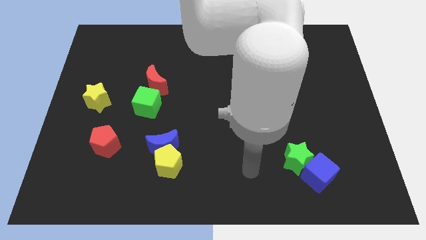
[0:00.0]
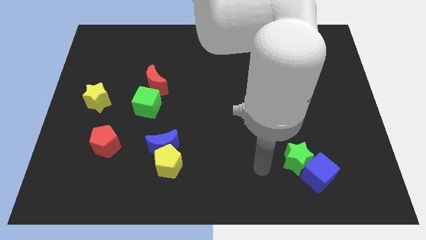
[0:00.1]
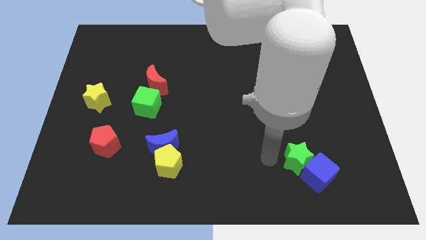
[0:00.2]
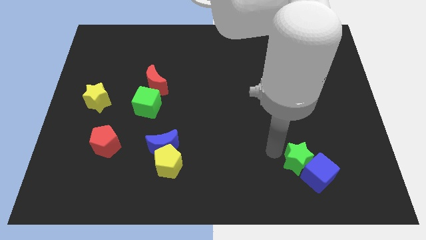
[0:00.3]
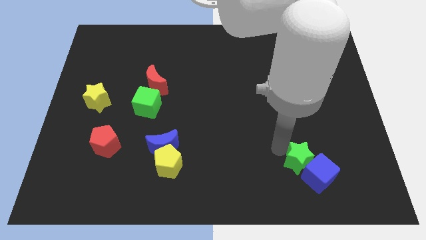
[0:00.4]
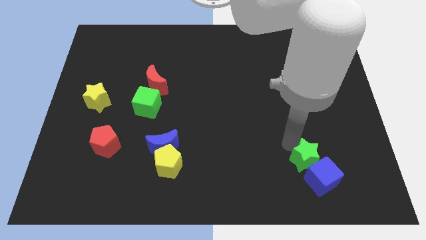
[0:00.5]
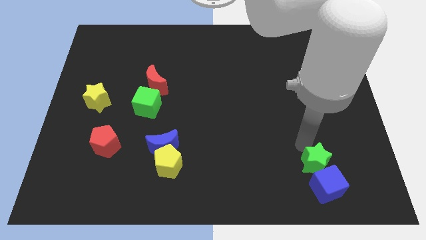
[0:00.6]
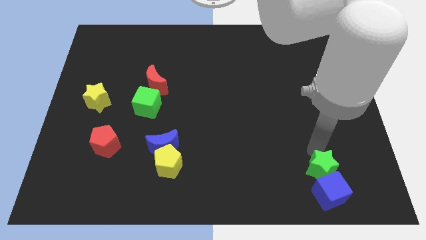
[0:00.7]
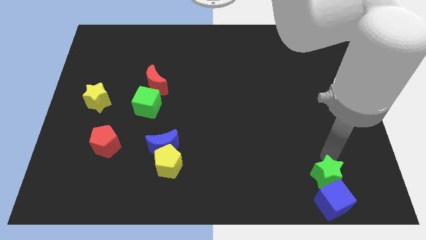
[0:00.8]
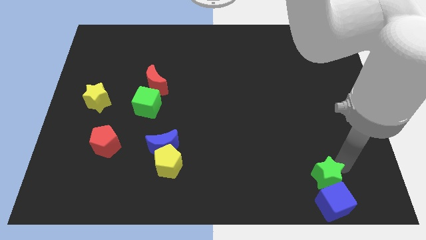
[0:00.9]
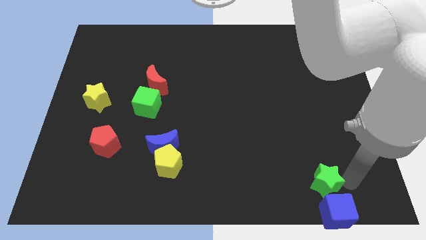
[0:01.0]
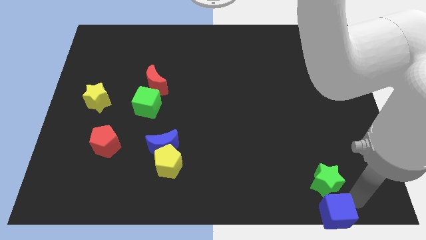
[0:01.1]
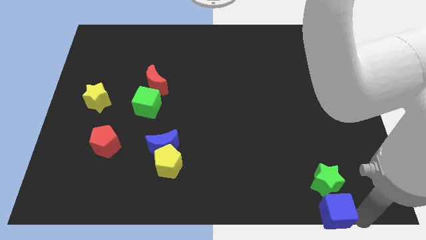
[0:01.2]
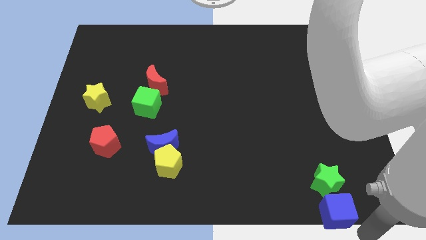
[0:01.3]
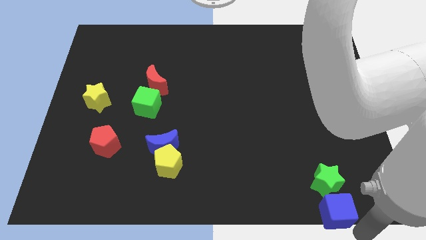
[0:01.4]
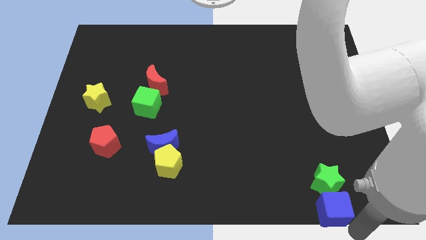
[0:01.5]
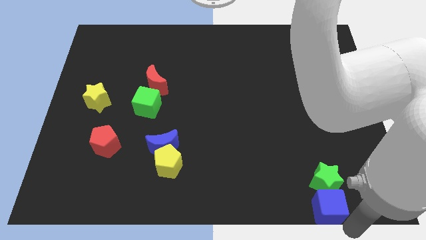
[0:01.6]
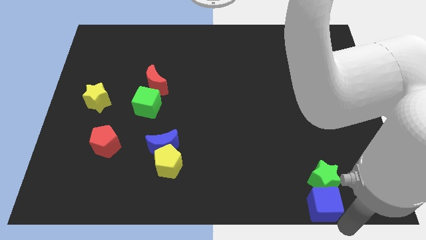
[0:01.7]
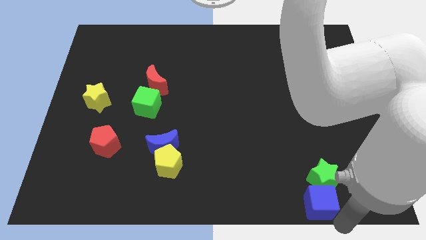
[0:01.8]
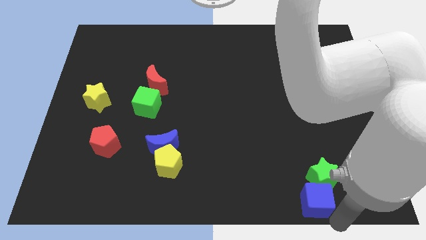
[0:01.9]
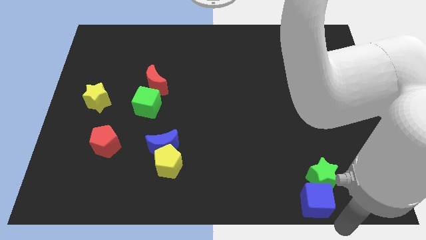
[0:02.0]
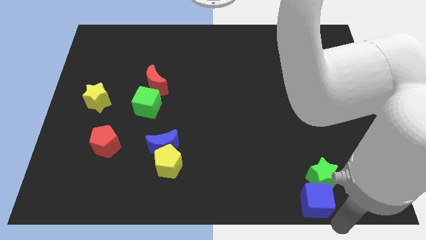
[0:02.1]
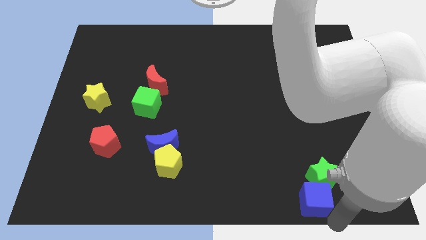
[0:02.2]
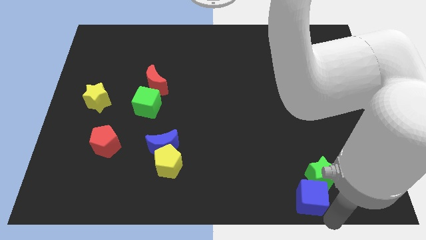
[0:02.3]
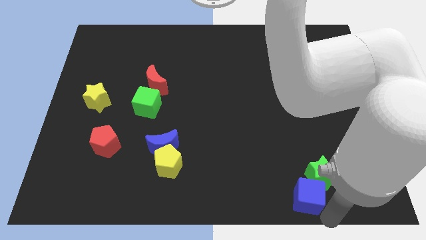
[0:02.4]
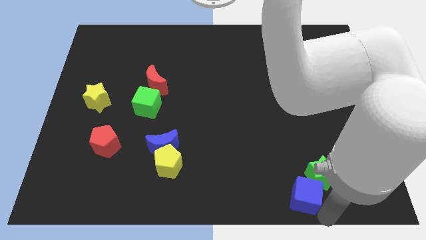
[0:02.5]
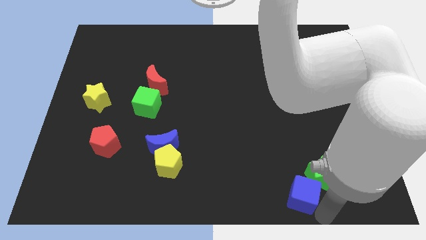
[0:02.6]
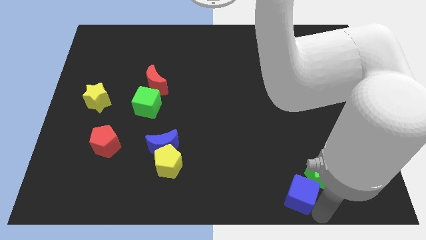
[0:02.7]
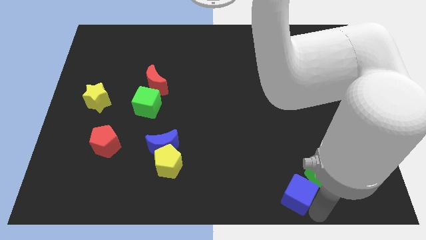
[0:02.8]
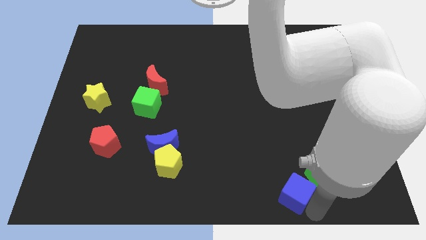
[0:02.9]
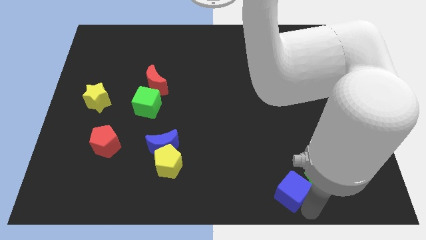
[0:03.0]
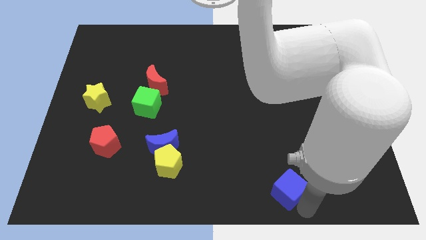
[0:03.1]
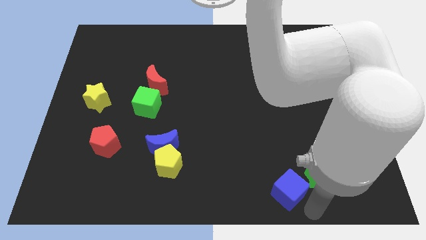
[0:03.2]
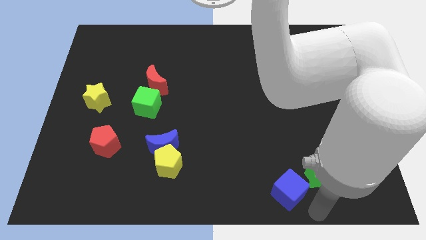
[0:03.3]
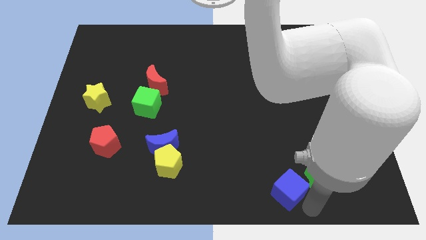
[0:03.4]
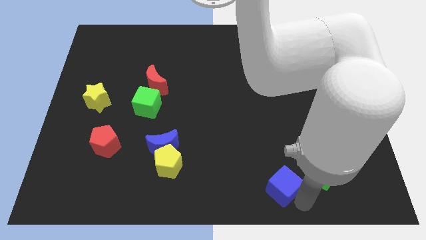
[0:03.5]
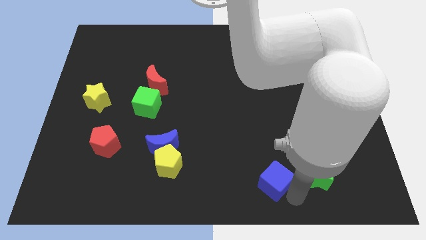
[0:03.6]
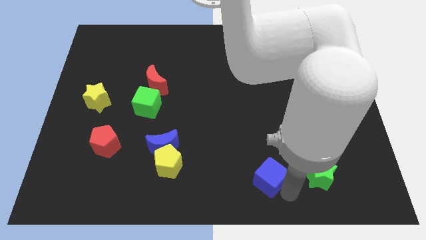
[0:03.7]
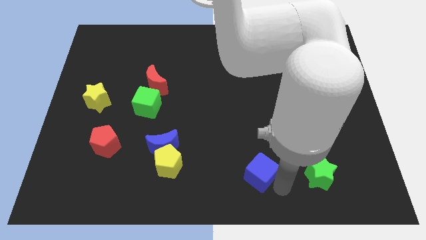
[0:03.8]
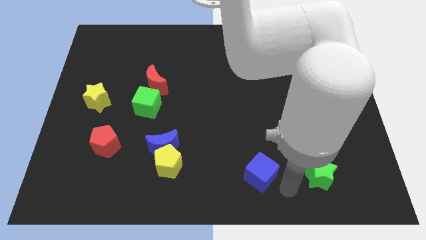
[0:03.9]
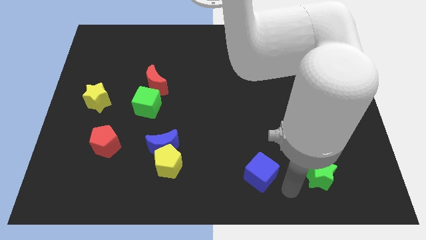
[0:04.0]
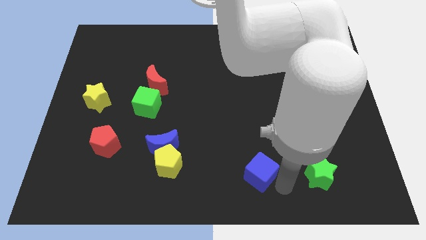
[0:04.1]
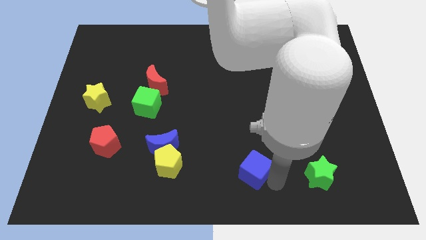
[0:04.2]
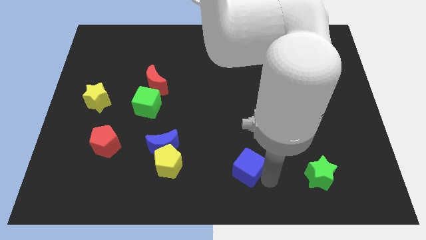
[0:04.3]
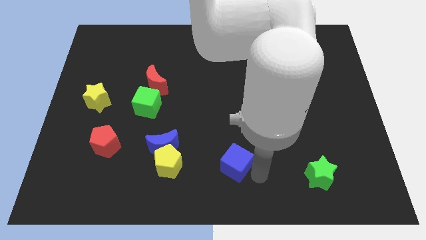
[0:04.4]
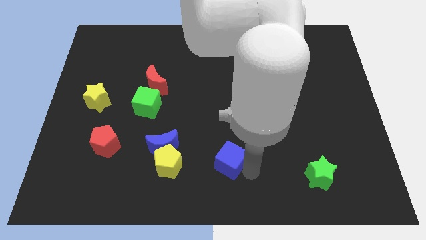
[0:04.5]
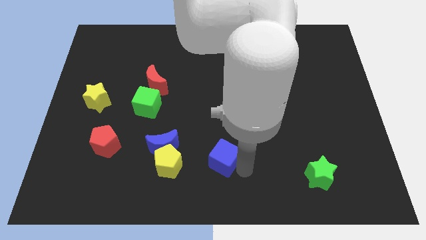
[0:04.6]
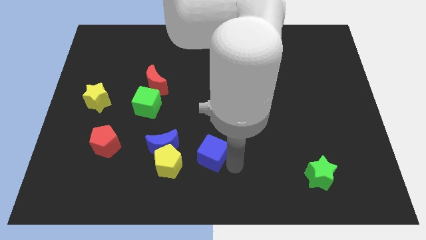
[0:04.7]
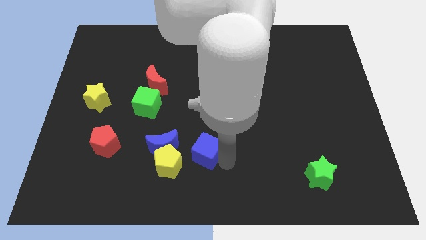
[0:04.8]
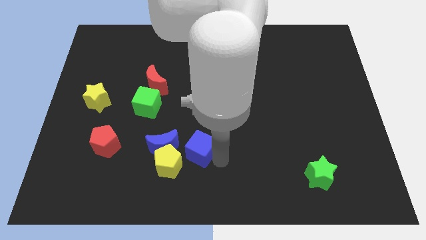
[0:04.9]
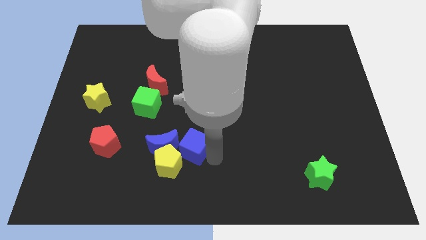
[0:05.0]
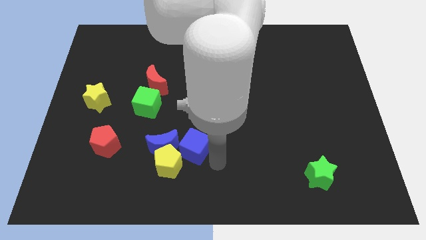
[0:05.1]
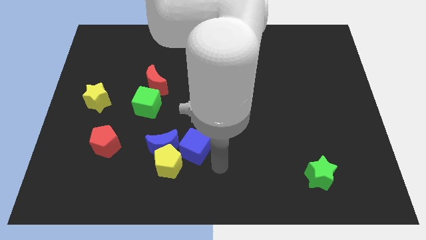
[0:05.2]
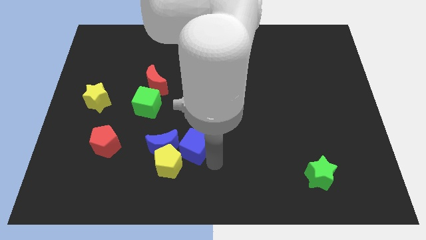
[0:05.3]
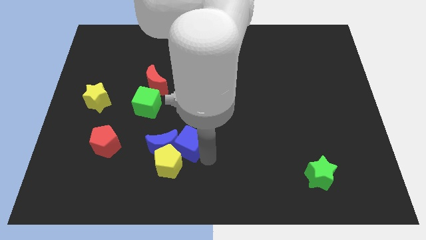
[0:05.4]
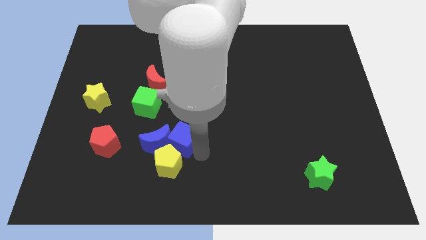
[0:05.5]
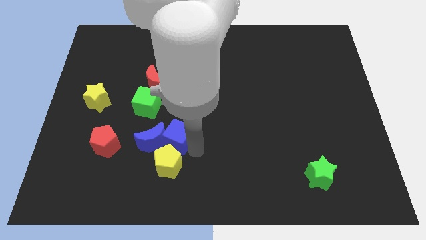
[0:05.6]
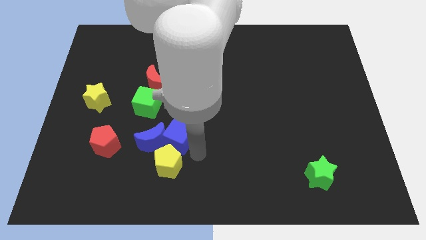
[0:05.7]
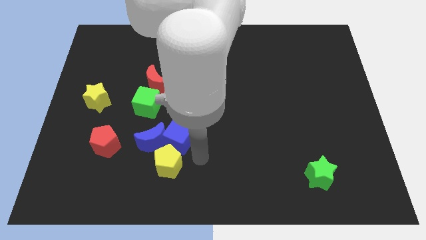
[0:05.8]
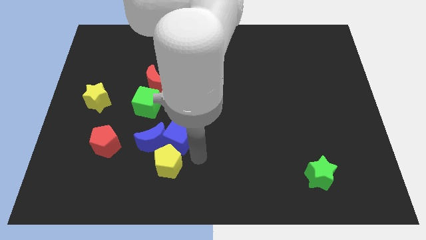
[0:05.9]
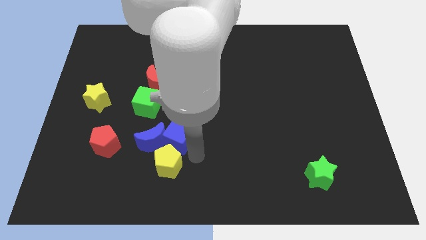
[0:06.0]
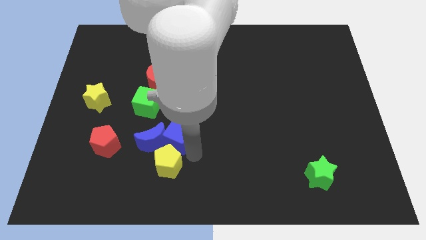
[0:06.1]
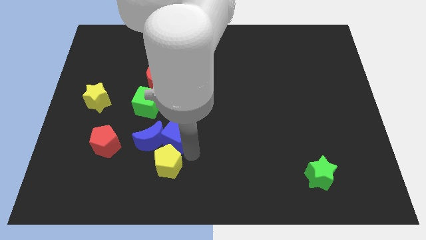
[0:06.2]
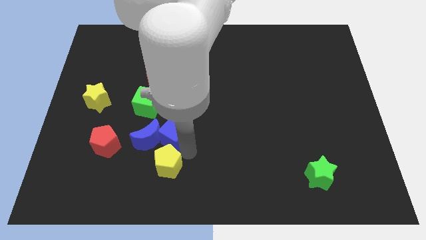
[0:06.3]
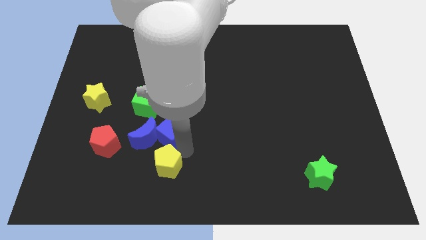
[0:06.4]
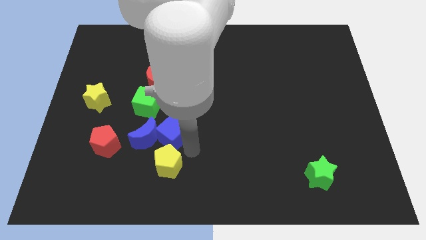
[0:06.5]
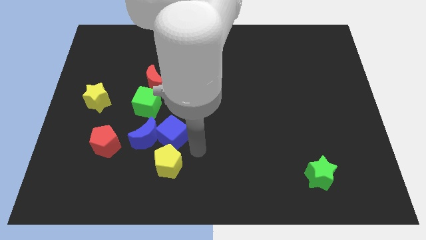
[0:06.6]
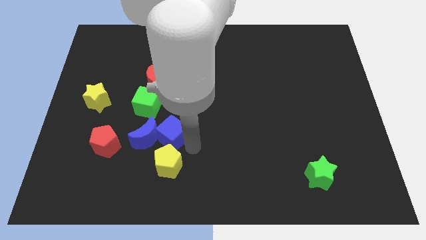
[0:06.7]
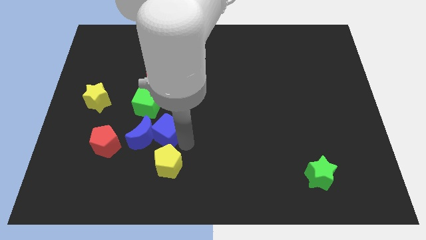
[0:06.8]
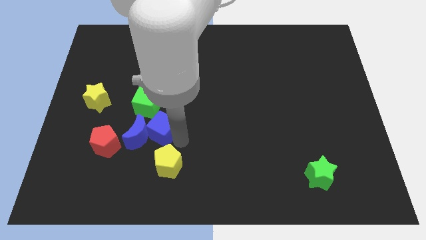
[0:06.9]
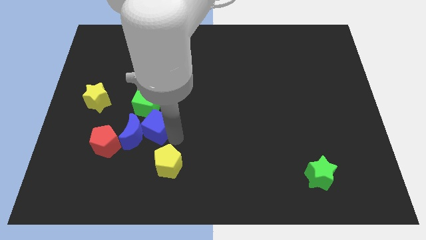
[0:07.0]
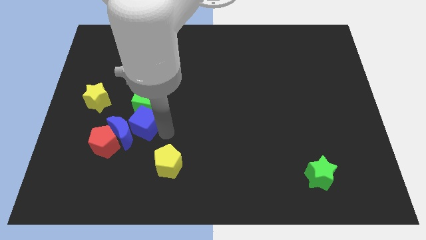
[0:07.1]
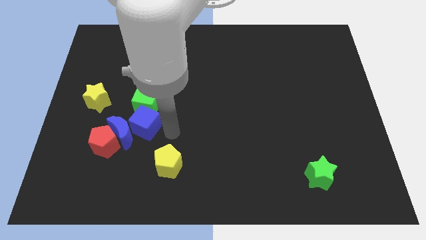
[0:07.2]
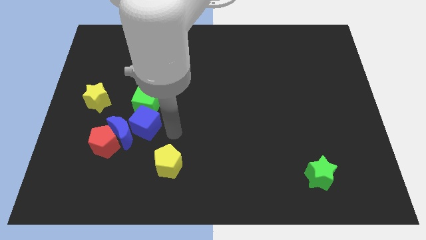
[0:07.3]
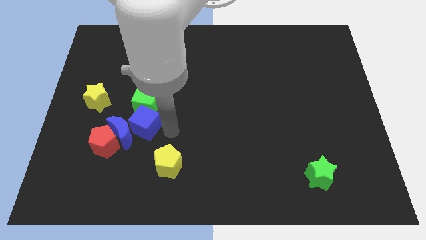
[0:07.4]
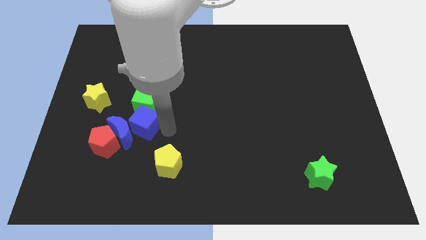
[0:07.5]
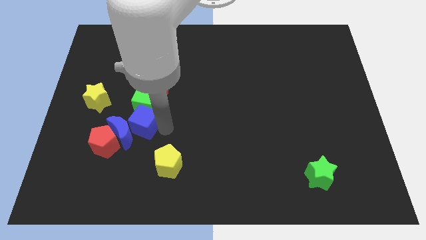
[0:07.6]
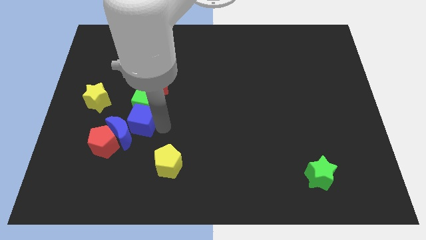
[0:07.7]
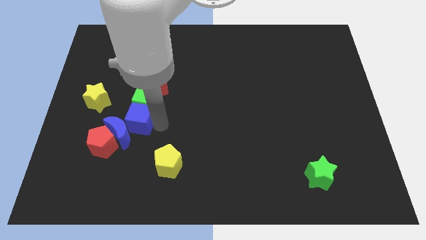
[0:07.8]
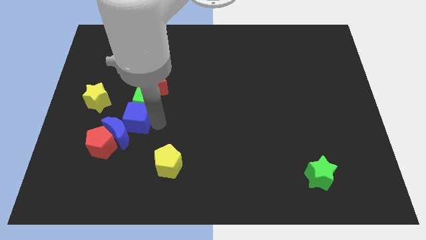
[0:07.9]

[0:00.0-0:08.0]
push the blue cube to the bottom right side of the yellow star
